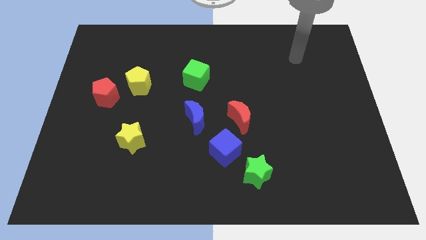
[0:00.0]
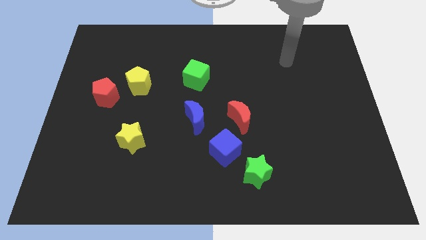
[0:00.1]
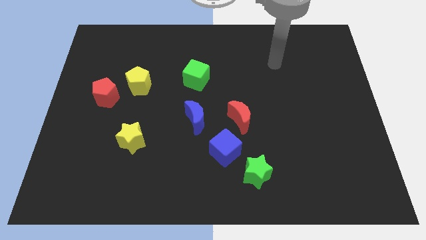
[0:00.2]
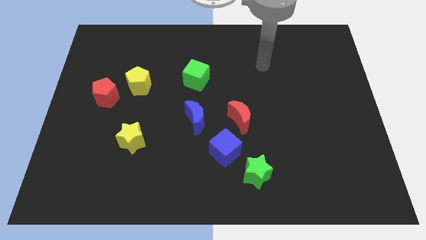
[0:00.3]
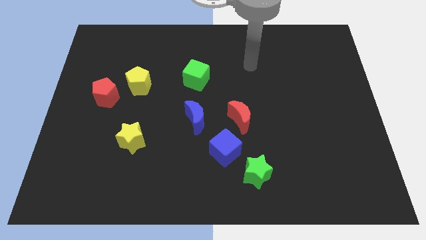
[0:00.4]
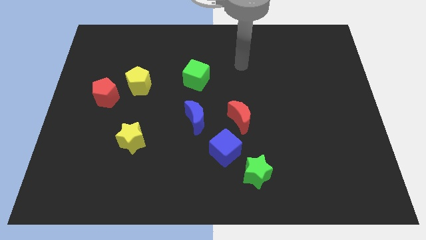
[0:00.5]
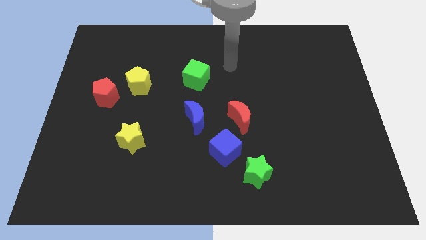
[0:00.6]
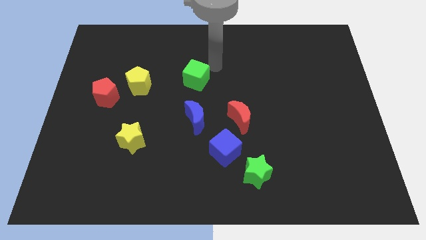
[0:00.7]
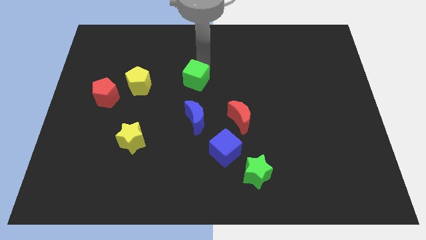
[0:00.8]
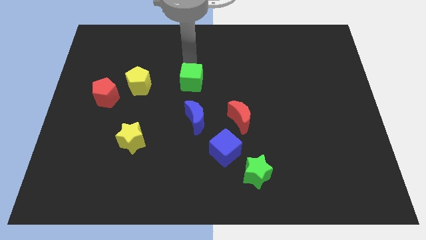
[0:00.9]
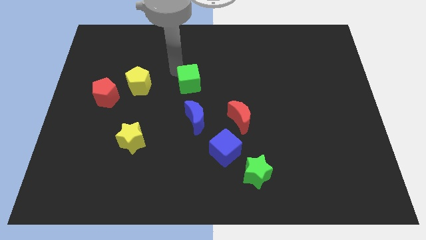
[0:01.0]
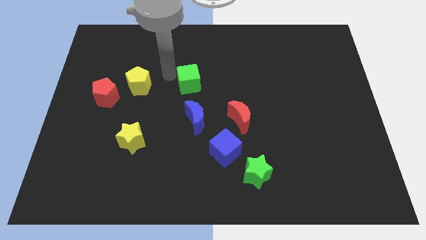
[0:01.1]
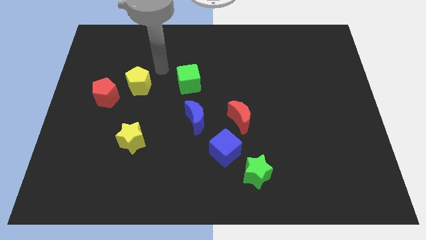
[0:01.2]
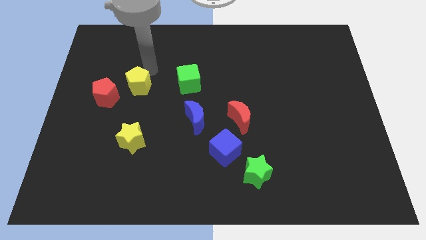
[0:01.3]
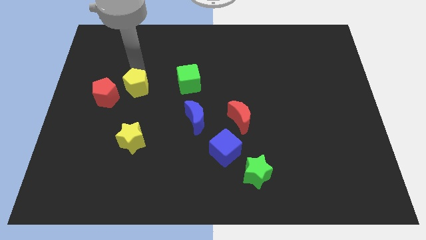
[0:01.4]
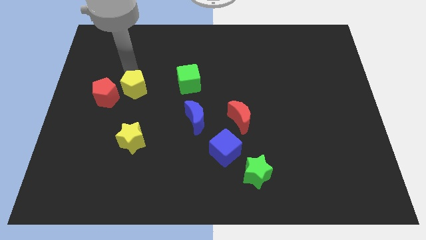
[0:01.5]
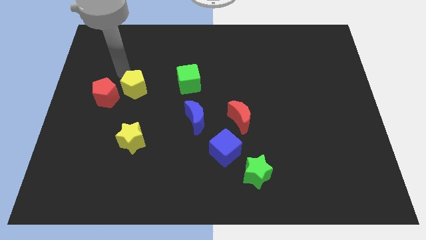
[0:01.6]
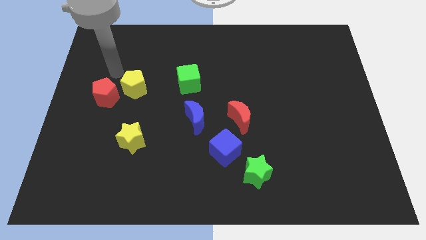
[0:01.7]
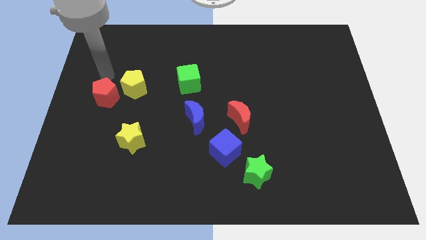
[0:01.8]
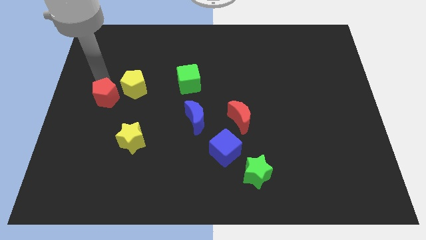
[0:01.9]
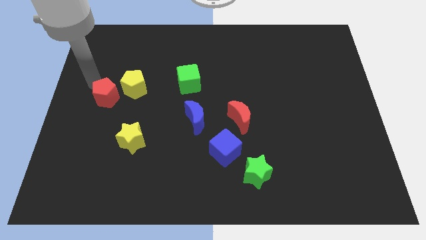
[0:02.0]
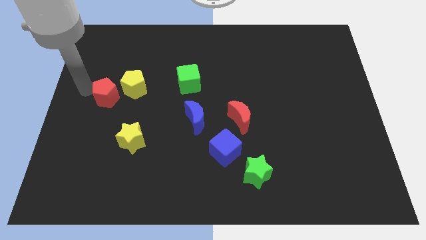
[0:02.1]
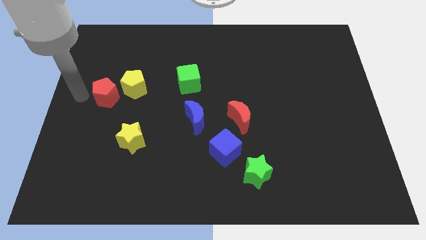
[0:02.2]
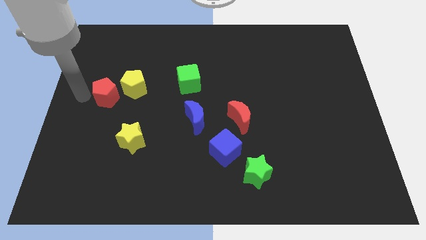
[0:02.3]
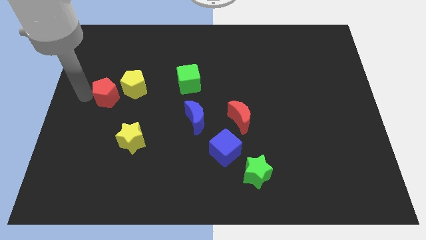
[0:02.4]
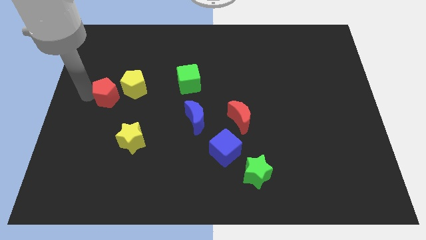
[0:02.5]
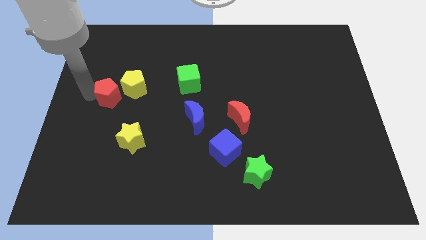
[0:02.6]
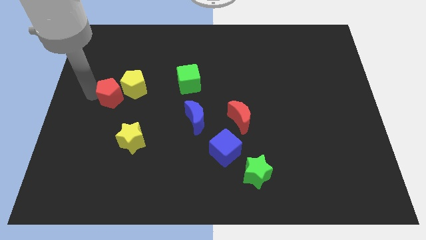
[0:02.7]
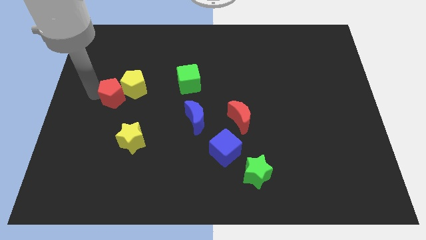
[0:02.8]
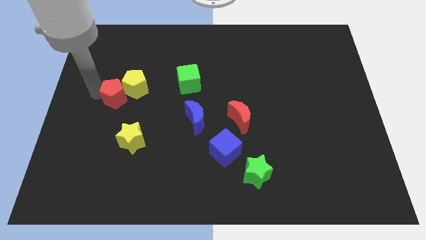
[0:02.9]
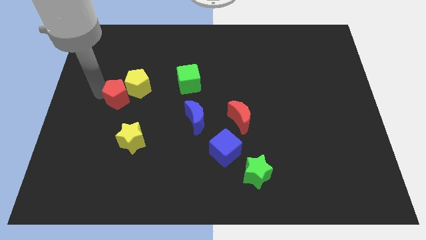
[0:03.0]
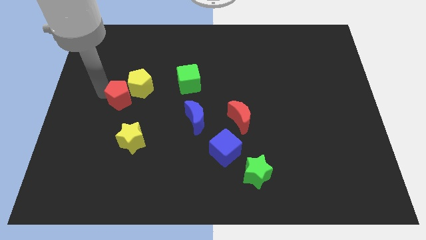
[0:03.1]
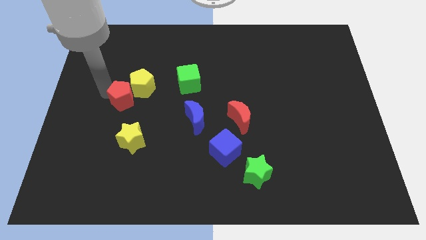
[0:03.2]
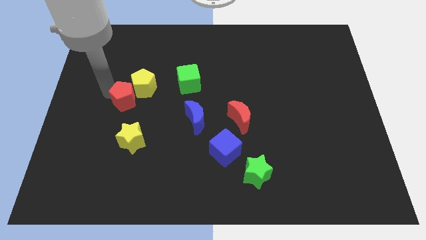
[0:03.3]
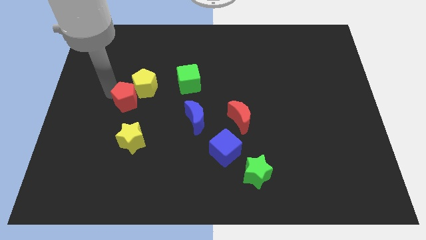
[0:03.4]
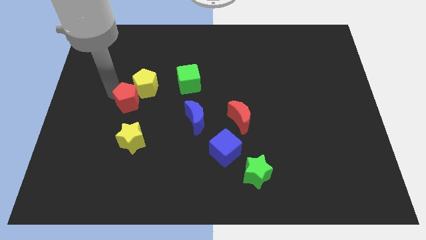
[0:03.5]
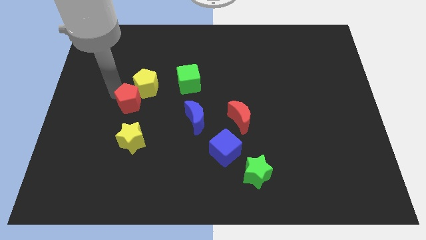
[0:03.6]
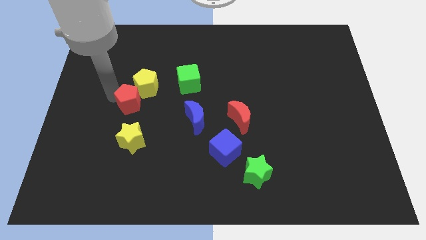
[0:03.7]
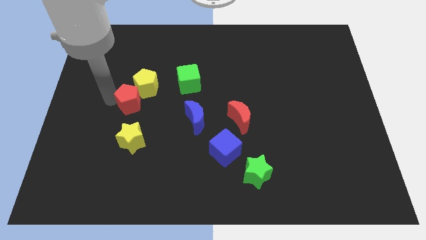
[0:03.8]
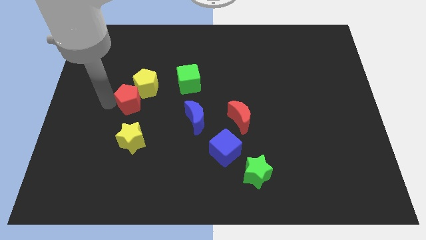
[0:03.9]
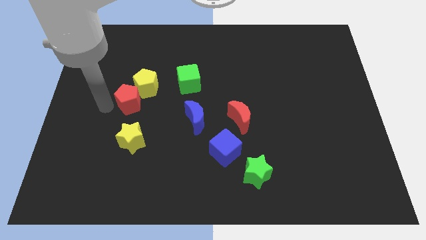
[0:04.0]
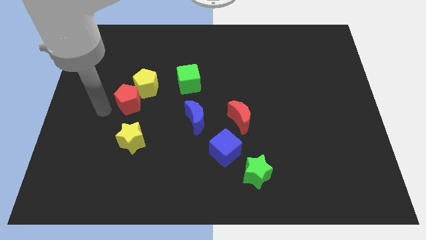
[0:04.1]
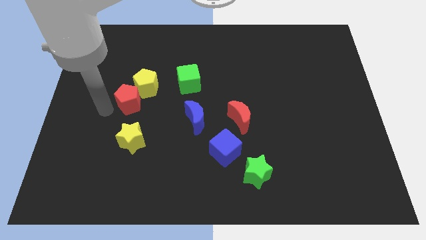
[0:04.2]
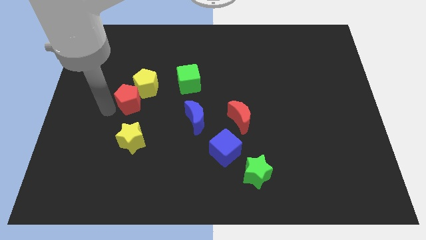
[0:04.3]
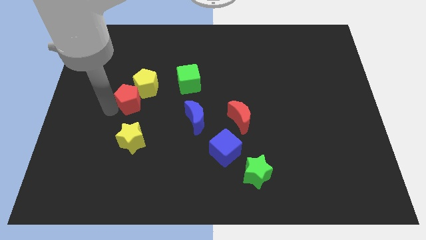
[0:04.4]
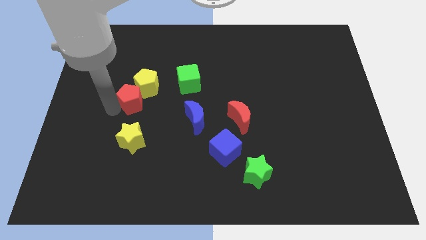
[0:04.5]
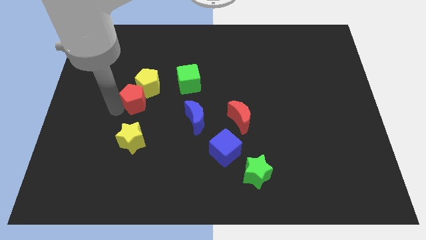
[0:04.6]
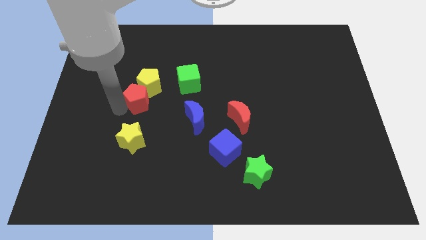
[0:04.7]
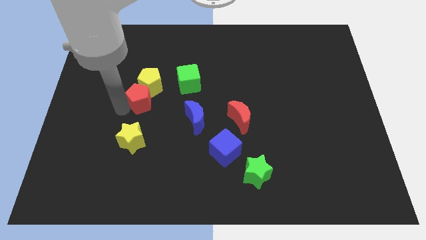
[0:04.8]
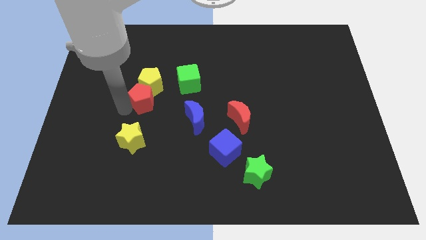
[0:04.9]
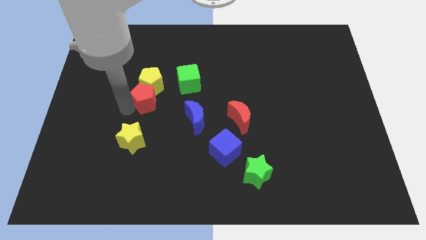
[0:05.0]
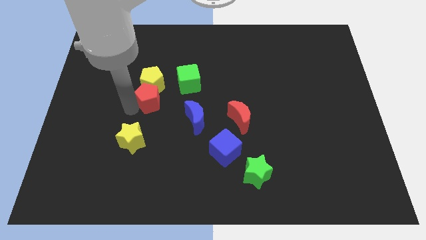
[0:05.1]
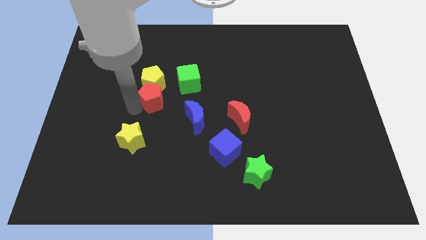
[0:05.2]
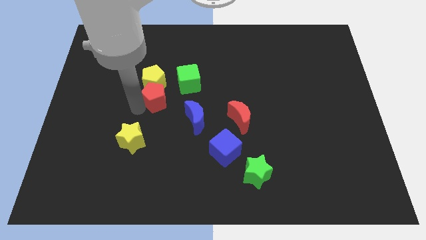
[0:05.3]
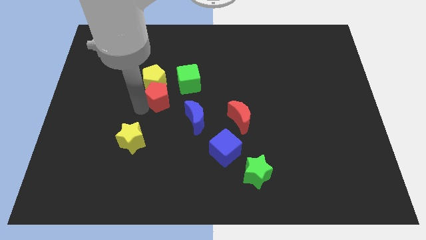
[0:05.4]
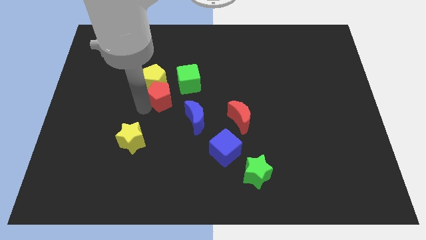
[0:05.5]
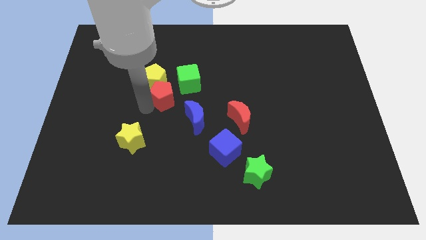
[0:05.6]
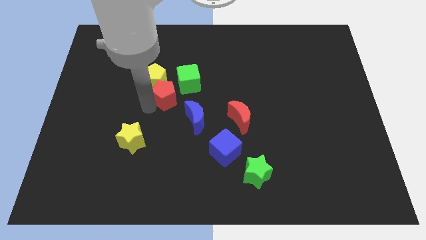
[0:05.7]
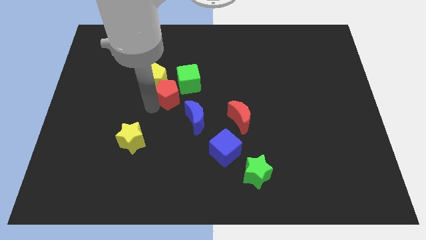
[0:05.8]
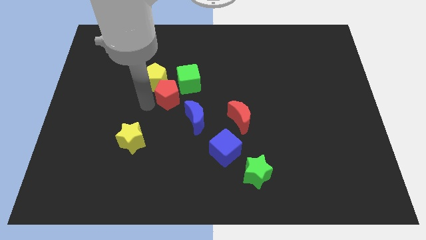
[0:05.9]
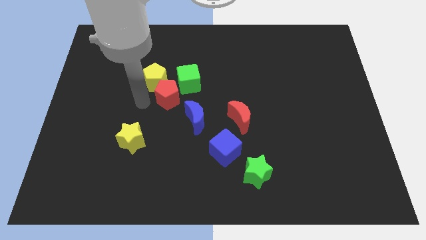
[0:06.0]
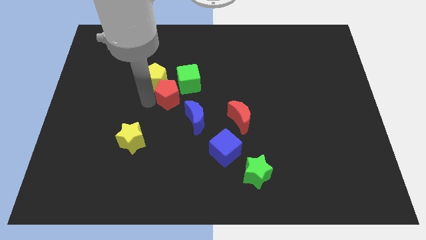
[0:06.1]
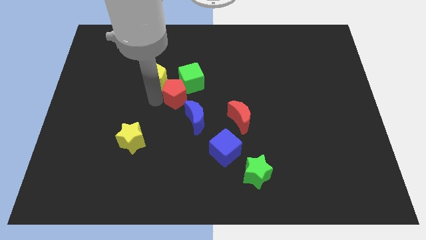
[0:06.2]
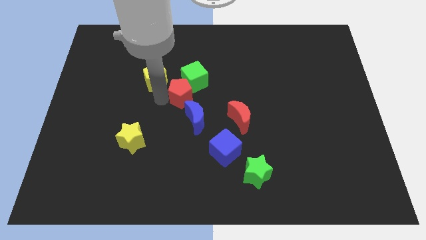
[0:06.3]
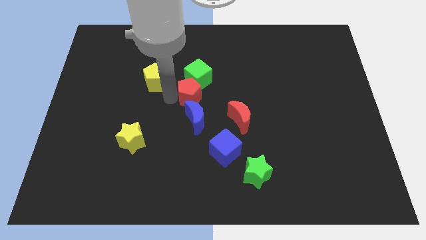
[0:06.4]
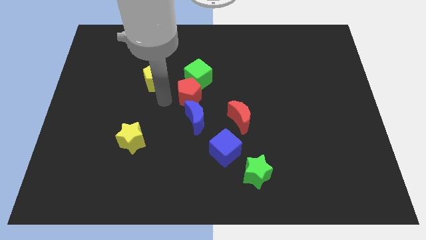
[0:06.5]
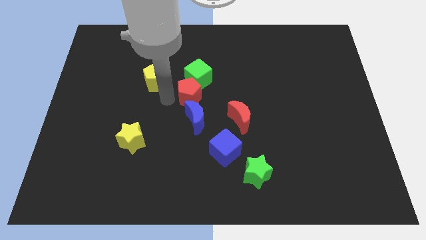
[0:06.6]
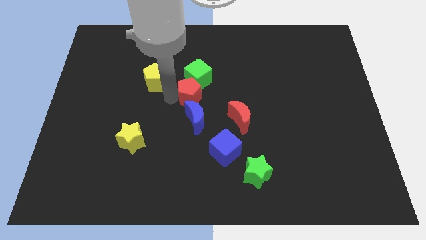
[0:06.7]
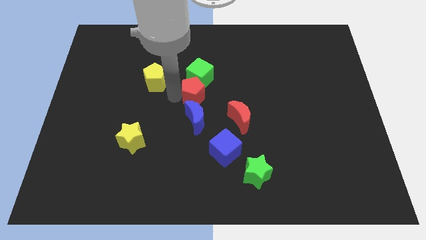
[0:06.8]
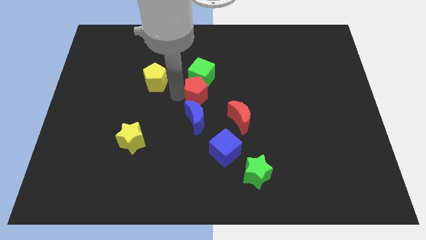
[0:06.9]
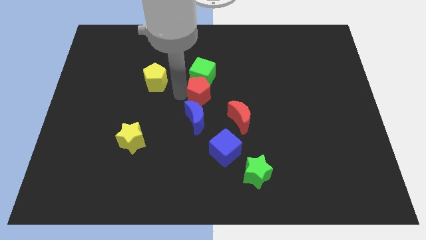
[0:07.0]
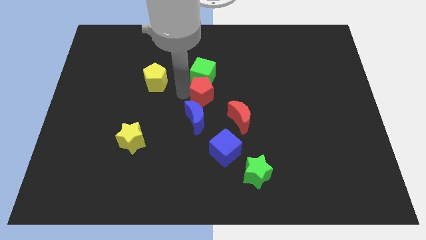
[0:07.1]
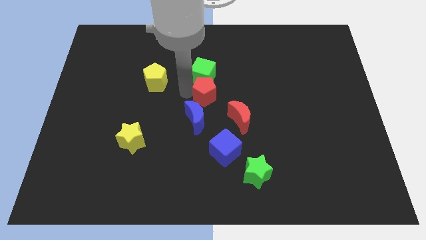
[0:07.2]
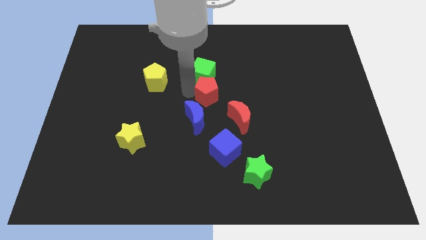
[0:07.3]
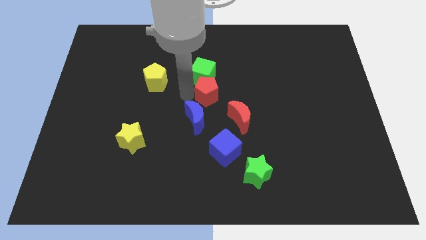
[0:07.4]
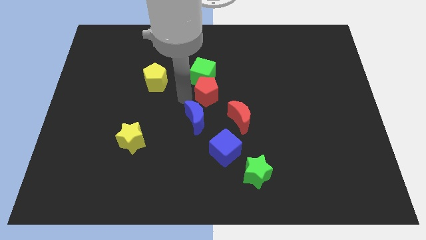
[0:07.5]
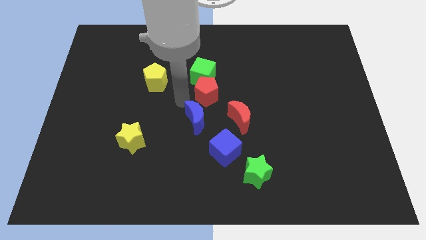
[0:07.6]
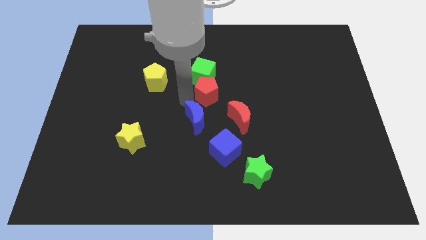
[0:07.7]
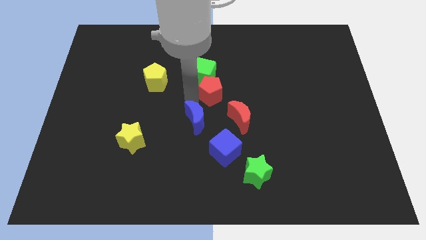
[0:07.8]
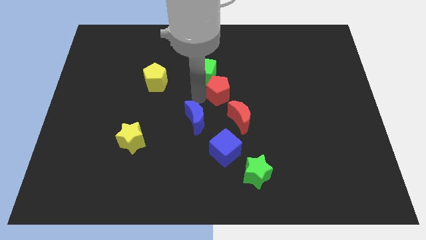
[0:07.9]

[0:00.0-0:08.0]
push the red pentagon to the top of the red moon

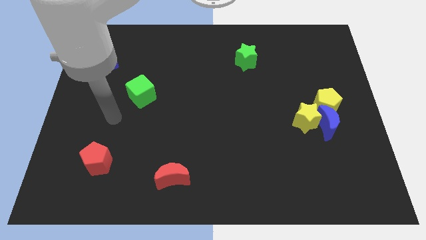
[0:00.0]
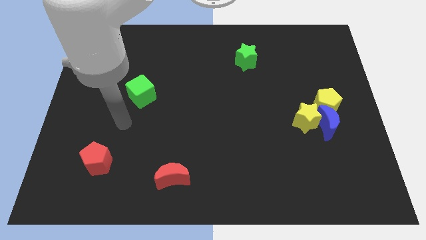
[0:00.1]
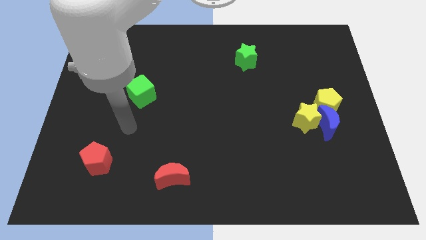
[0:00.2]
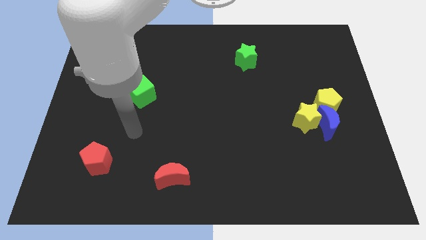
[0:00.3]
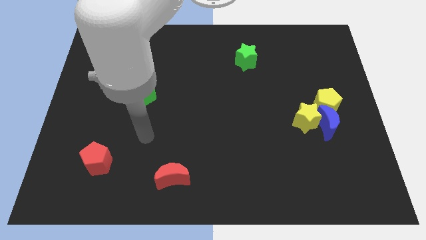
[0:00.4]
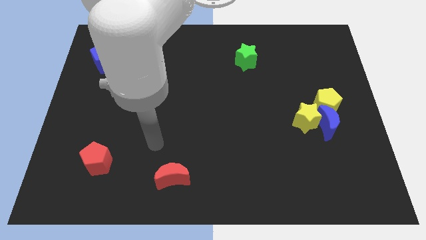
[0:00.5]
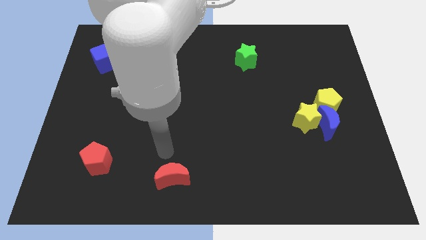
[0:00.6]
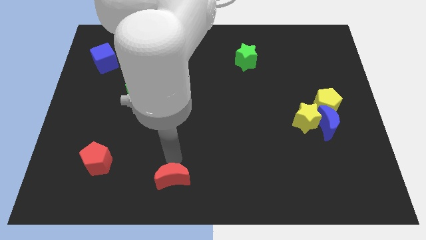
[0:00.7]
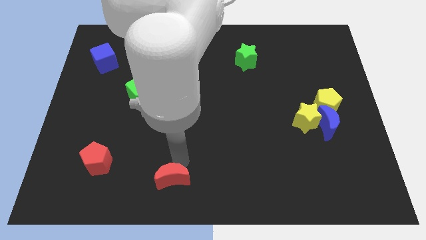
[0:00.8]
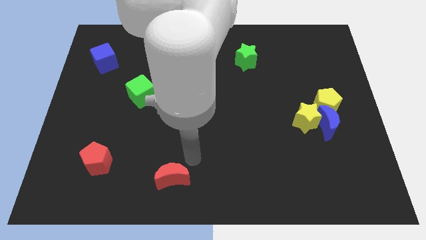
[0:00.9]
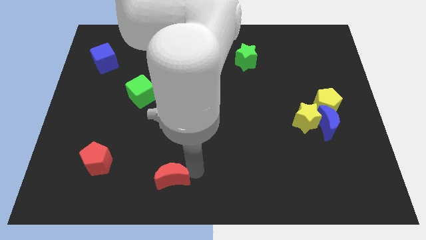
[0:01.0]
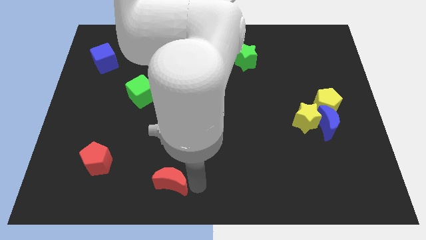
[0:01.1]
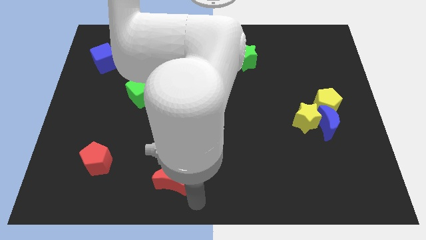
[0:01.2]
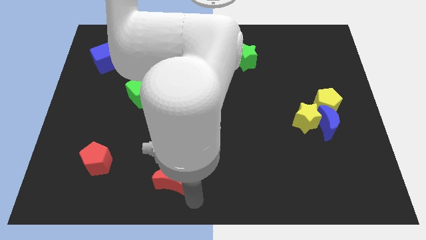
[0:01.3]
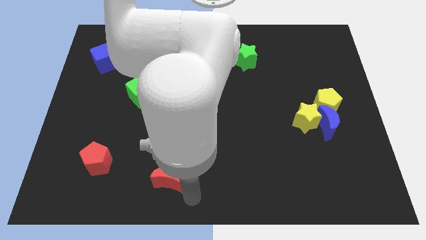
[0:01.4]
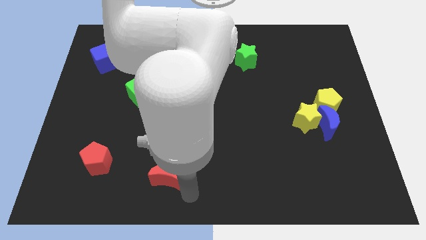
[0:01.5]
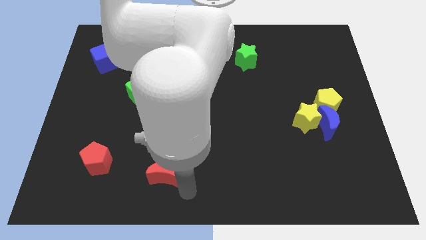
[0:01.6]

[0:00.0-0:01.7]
put the red moon to the right of the red pentagon
